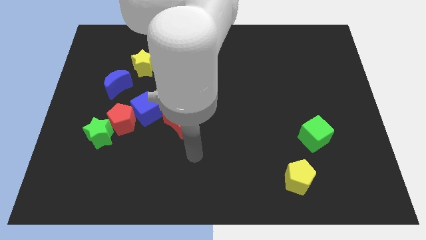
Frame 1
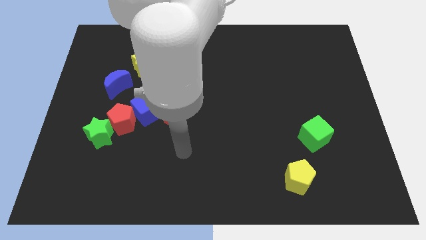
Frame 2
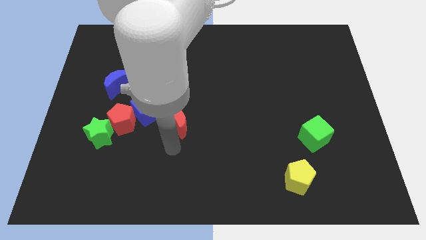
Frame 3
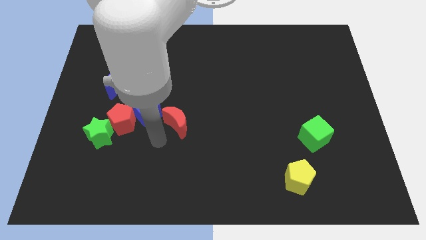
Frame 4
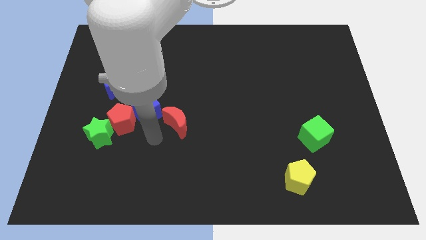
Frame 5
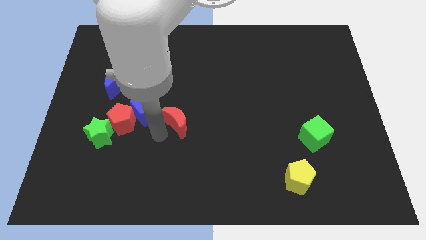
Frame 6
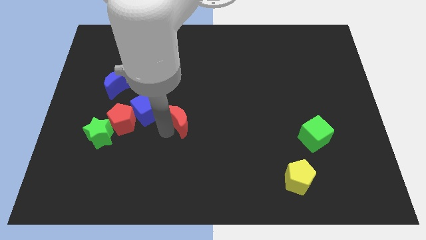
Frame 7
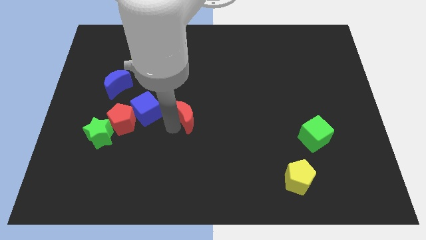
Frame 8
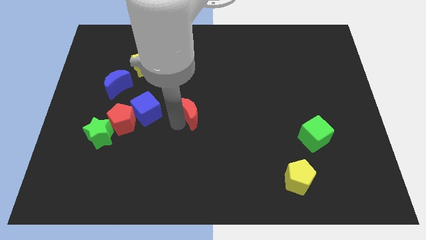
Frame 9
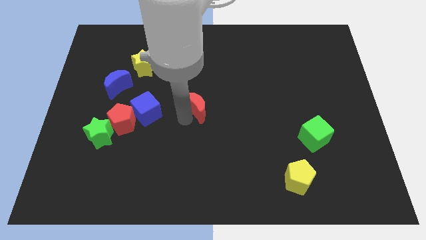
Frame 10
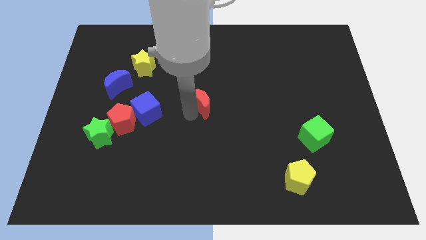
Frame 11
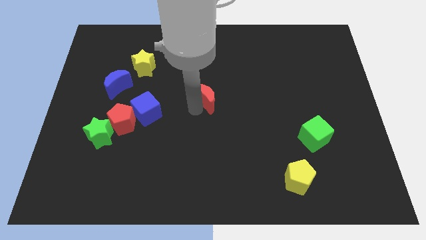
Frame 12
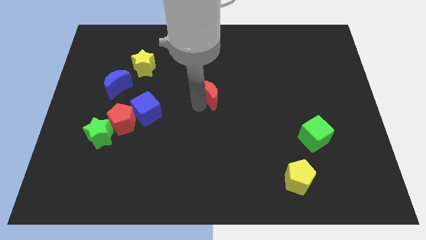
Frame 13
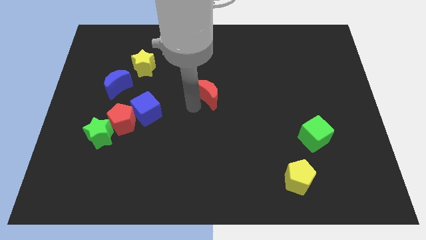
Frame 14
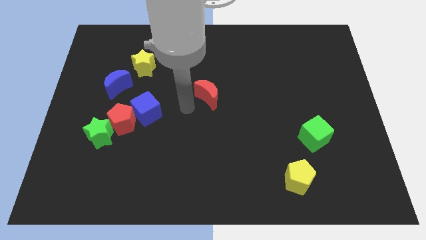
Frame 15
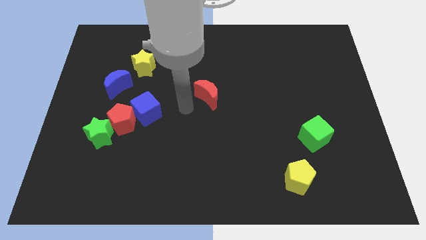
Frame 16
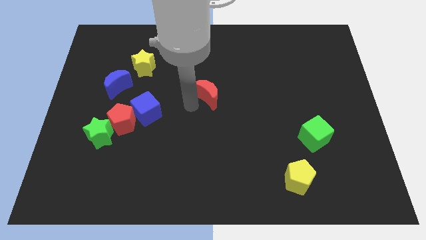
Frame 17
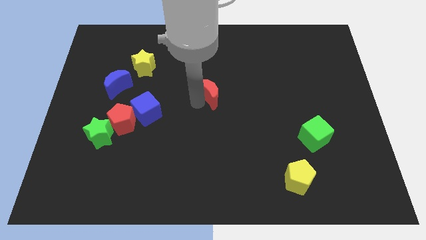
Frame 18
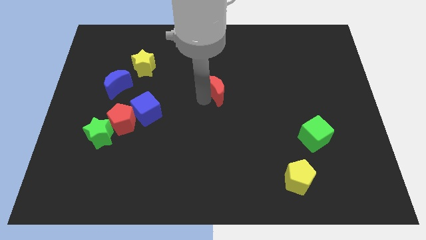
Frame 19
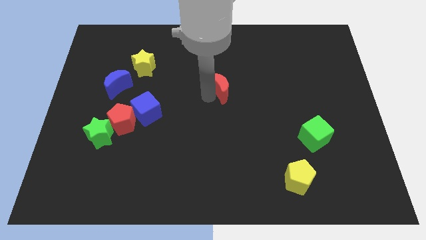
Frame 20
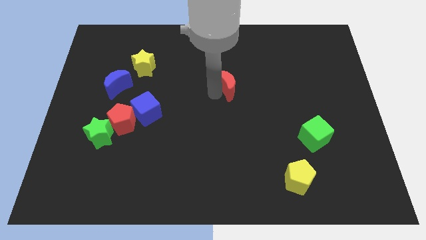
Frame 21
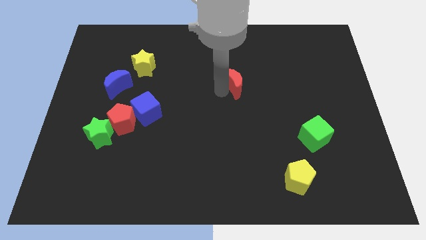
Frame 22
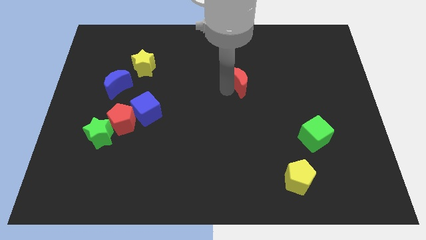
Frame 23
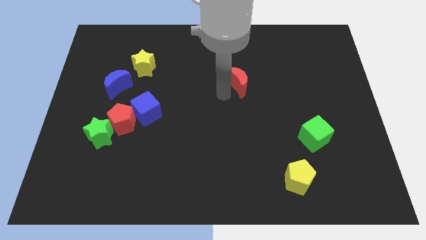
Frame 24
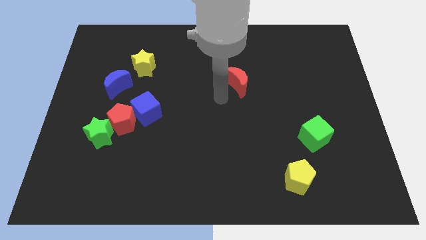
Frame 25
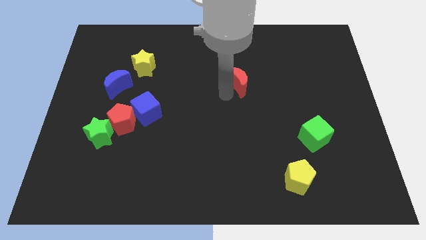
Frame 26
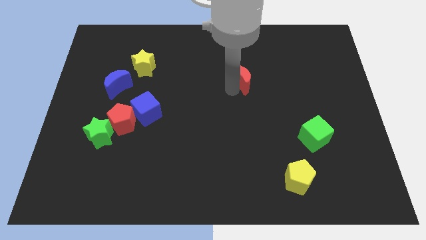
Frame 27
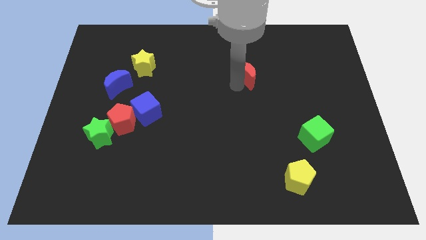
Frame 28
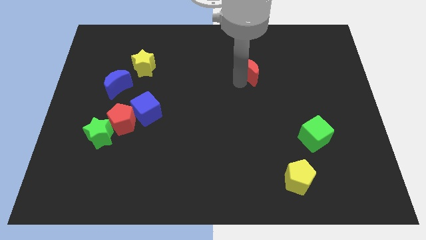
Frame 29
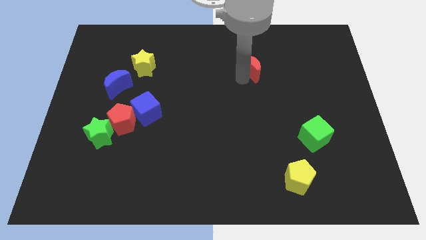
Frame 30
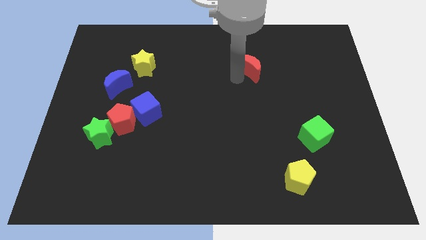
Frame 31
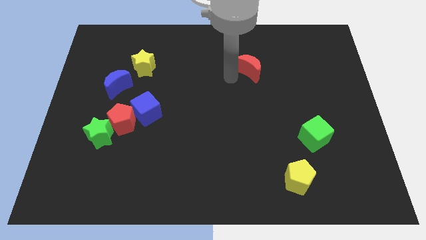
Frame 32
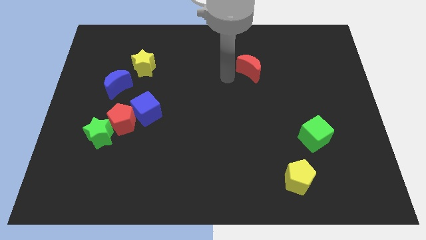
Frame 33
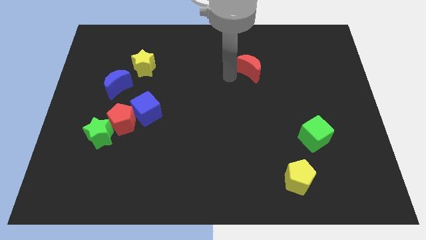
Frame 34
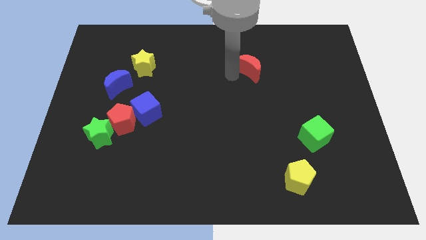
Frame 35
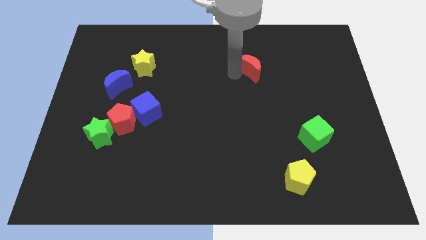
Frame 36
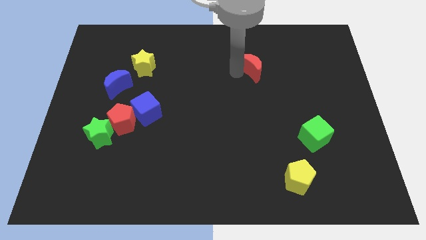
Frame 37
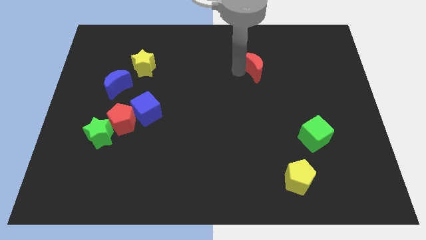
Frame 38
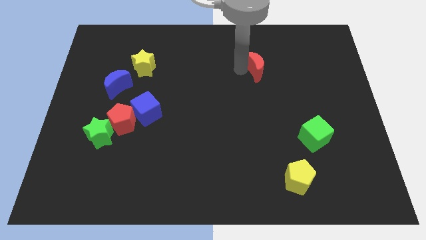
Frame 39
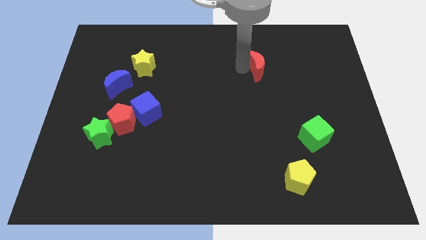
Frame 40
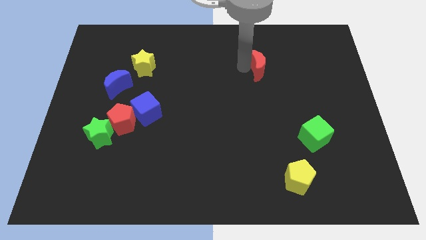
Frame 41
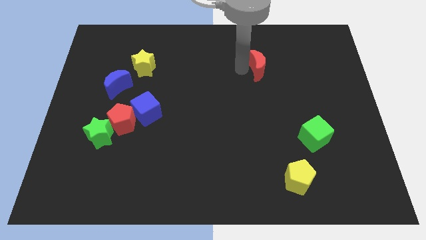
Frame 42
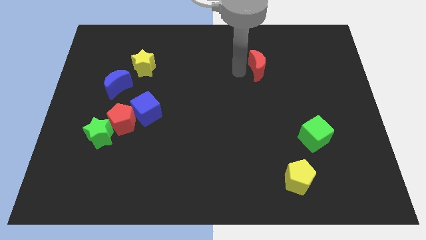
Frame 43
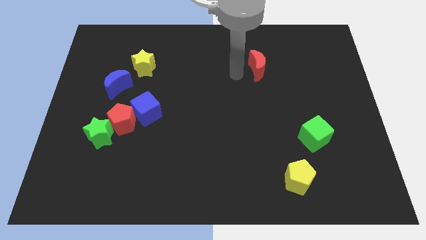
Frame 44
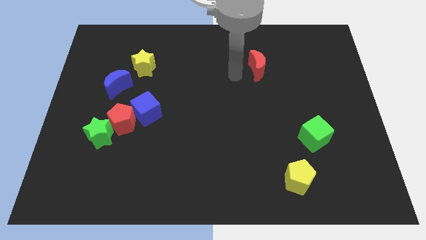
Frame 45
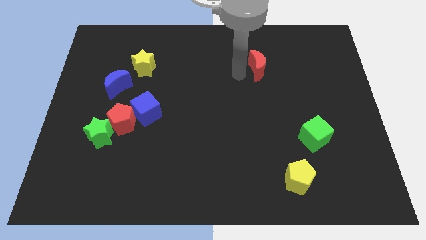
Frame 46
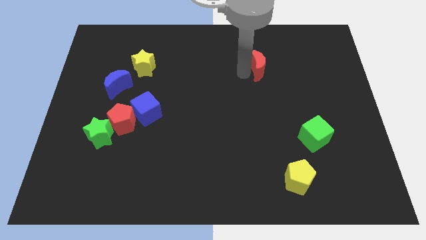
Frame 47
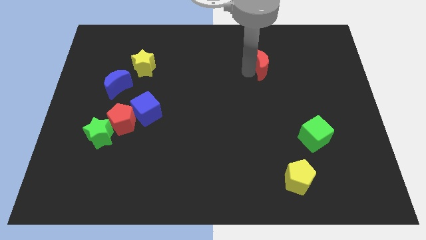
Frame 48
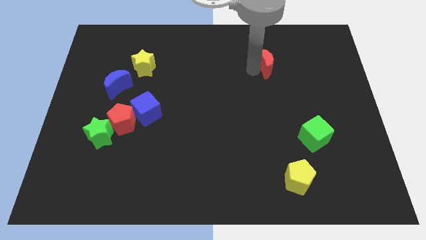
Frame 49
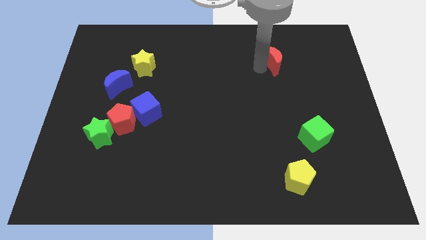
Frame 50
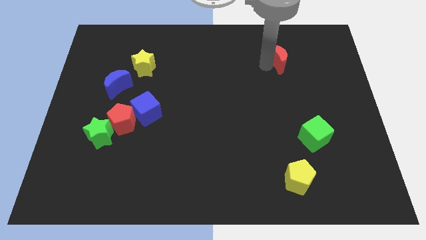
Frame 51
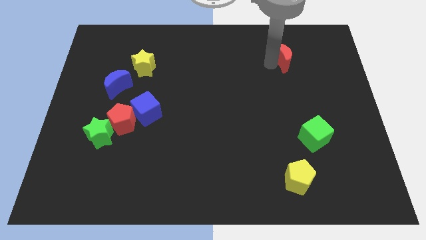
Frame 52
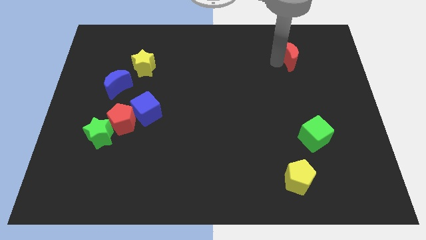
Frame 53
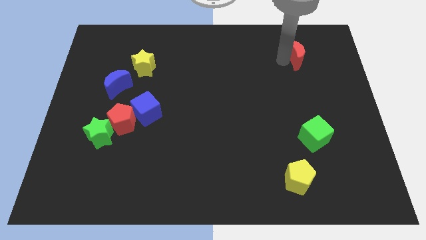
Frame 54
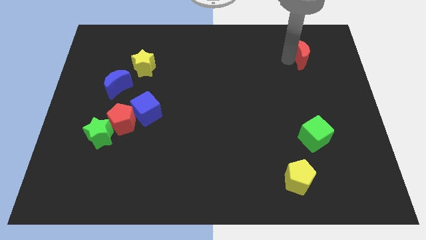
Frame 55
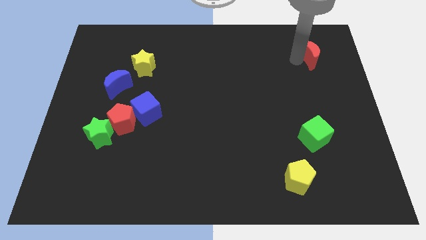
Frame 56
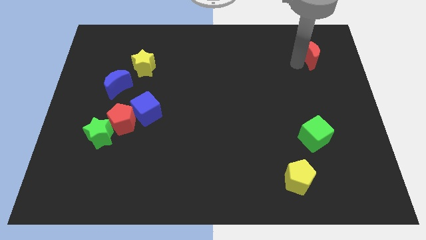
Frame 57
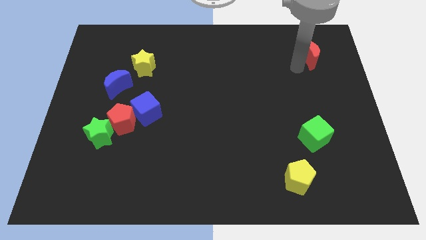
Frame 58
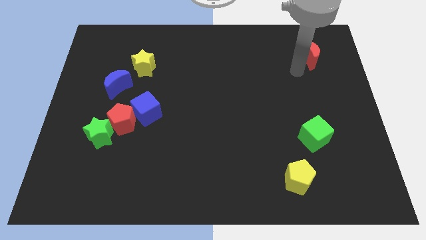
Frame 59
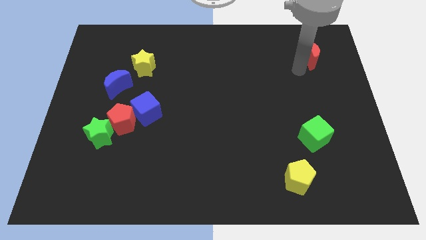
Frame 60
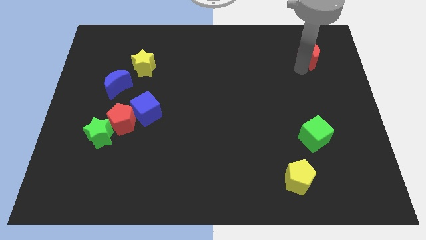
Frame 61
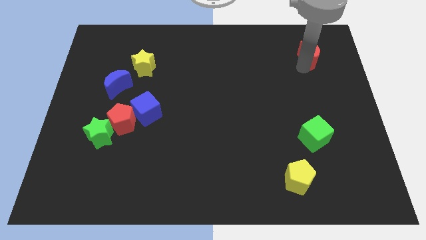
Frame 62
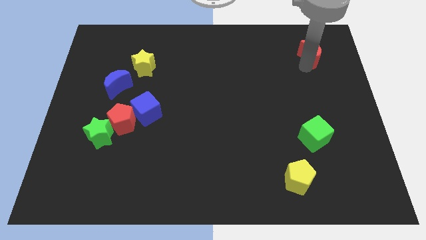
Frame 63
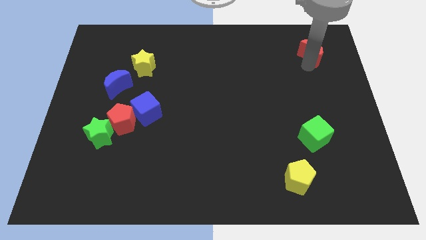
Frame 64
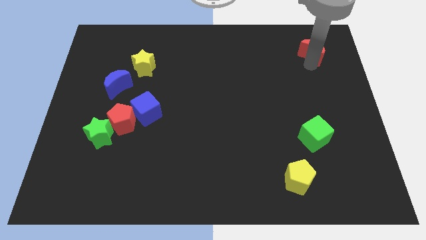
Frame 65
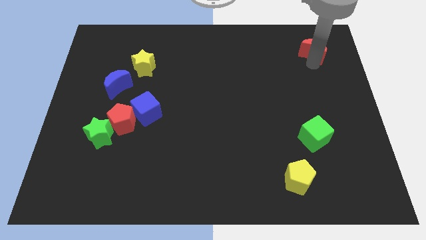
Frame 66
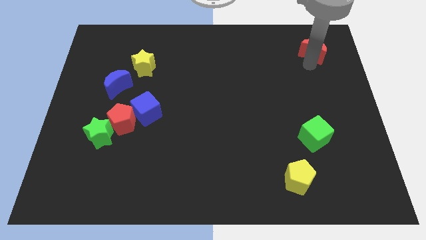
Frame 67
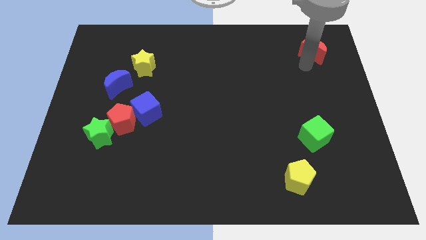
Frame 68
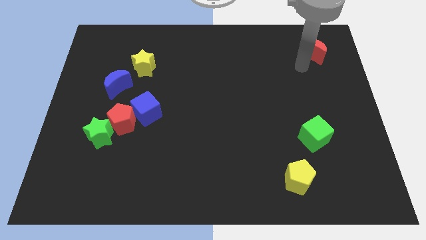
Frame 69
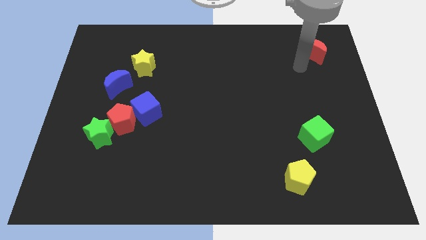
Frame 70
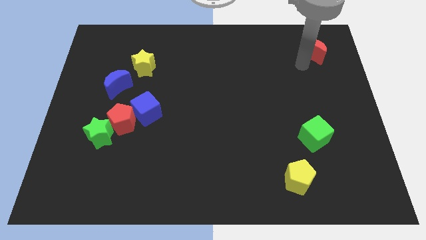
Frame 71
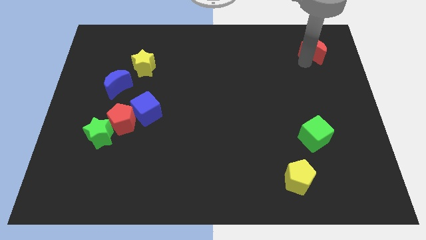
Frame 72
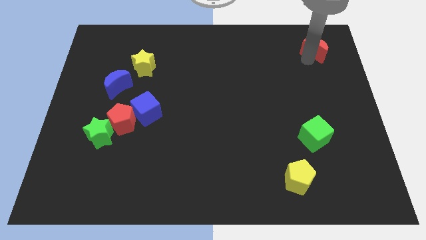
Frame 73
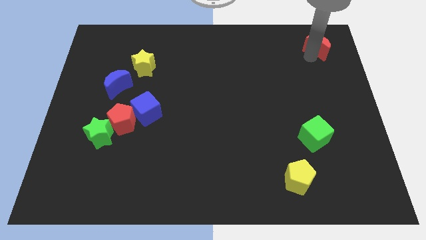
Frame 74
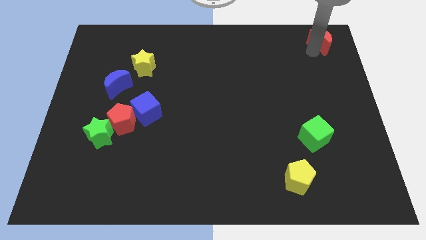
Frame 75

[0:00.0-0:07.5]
push the red moon to the top right of the board
